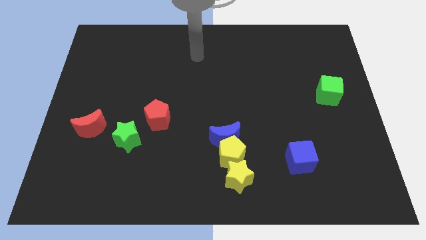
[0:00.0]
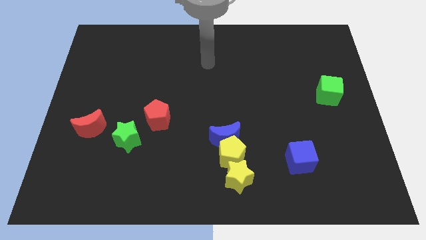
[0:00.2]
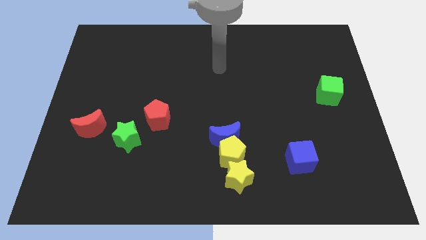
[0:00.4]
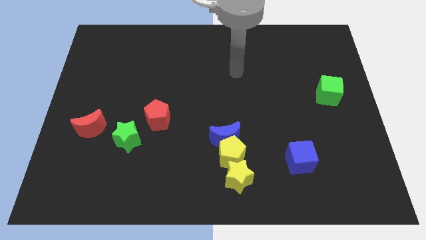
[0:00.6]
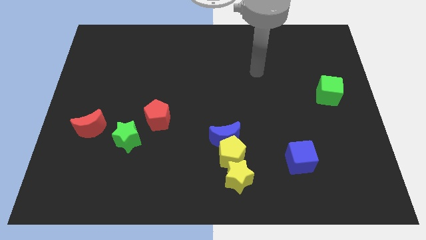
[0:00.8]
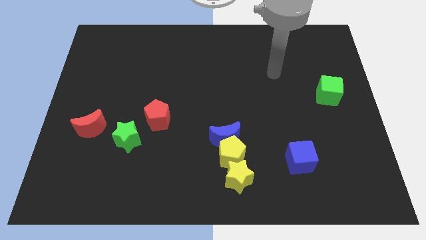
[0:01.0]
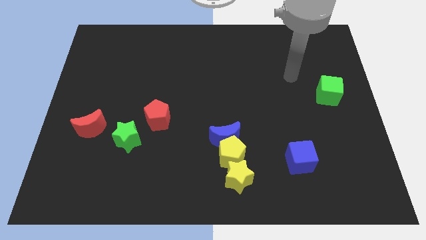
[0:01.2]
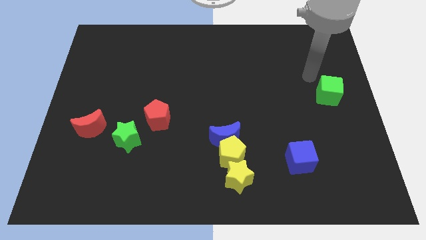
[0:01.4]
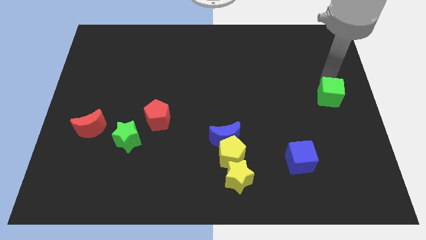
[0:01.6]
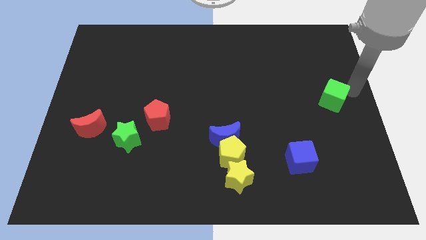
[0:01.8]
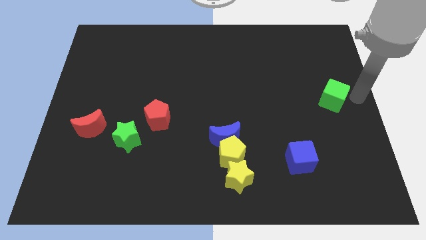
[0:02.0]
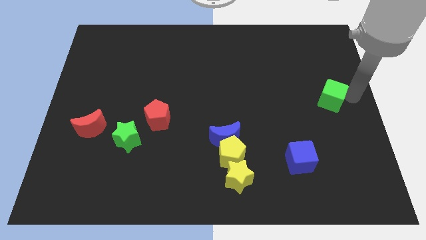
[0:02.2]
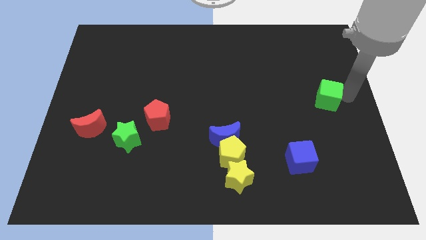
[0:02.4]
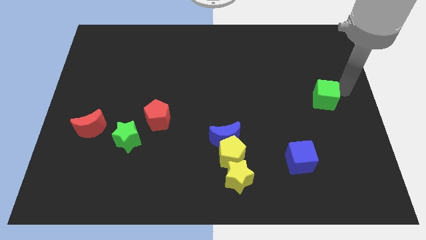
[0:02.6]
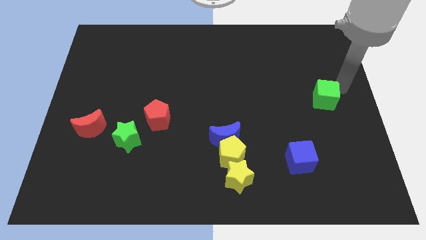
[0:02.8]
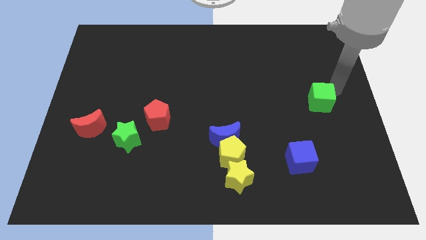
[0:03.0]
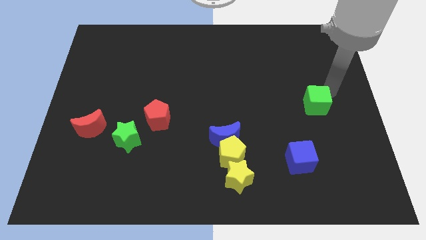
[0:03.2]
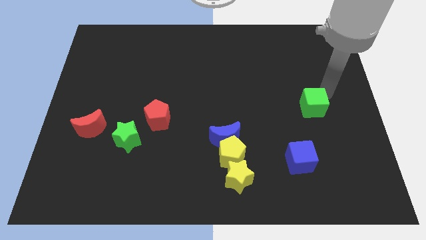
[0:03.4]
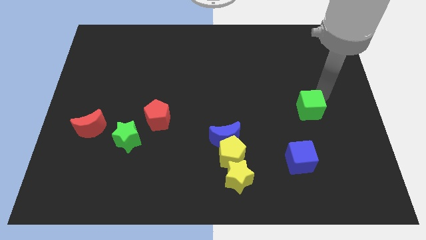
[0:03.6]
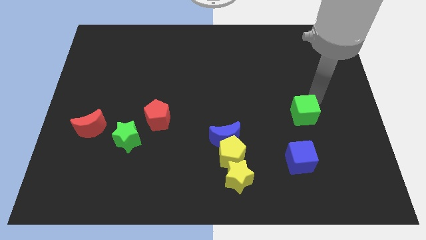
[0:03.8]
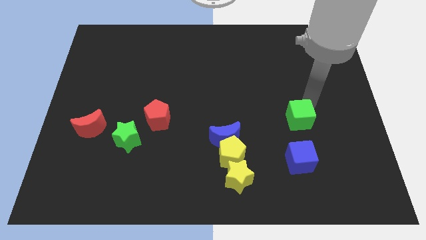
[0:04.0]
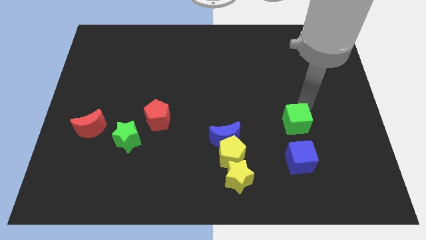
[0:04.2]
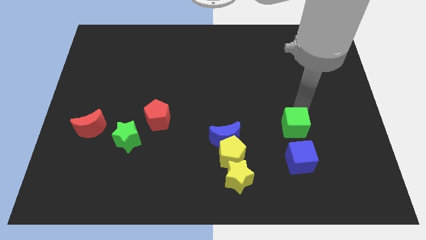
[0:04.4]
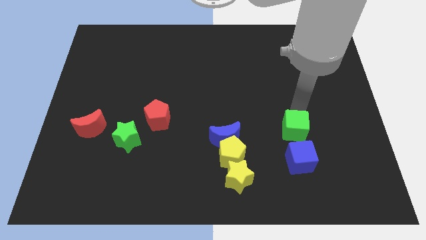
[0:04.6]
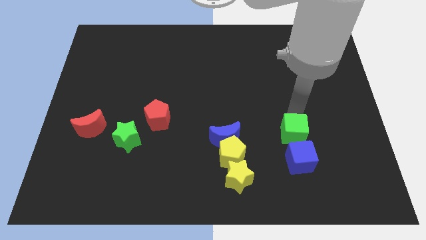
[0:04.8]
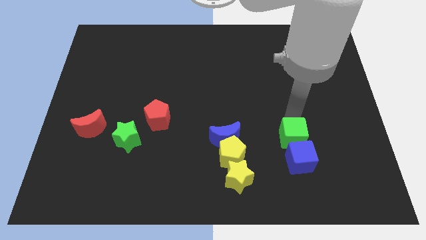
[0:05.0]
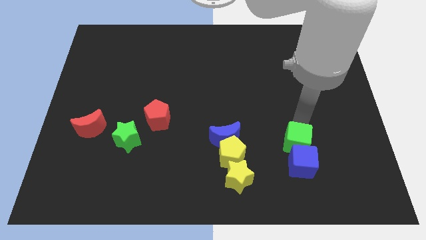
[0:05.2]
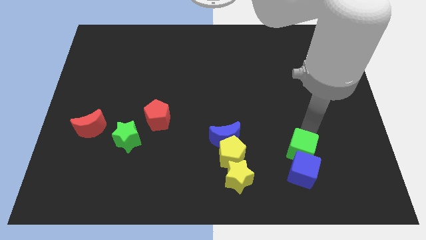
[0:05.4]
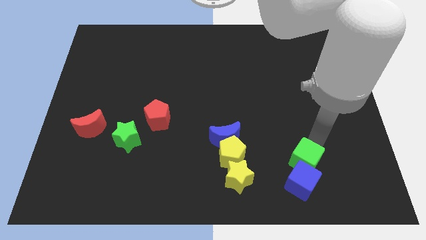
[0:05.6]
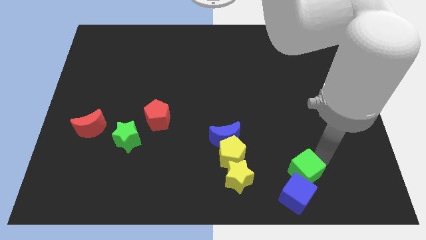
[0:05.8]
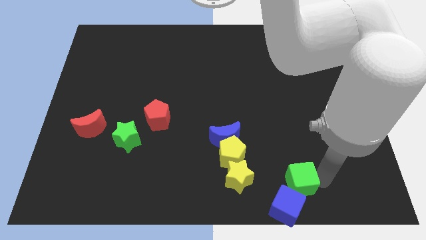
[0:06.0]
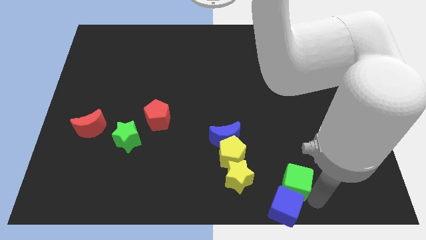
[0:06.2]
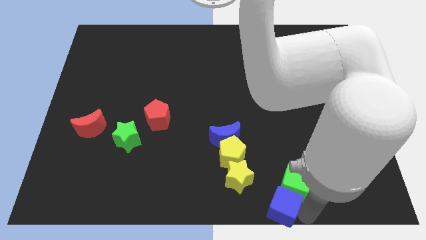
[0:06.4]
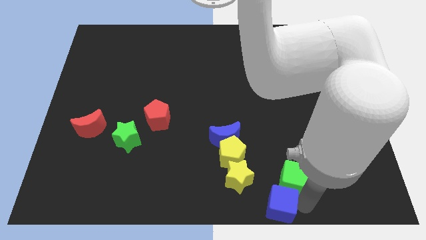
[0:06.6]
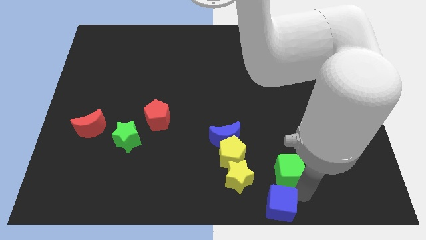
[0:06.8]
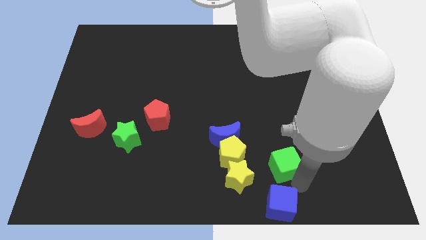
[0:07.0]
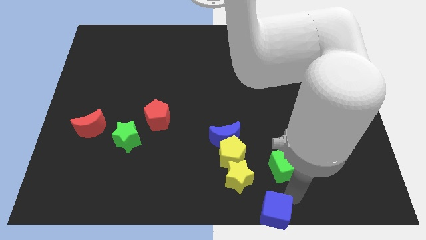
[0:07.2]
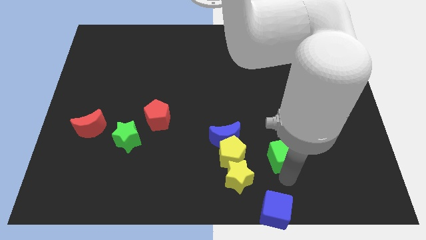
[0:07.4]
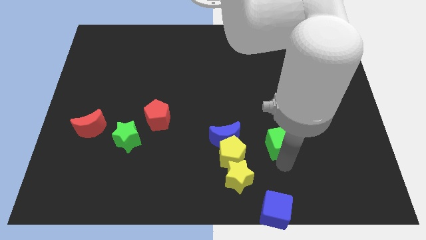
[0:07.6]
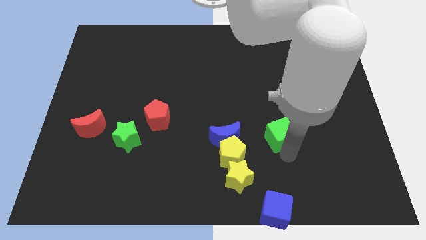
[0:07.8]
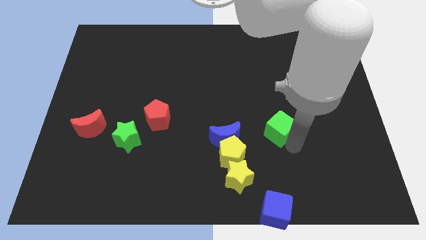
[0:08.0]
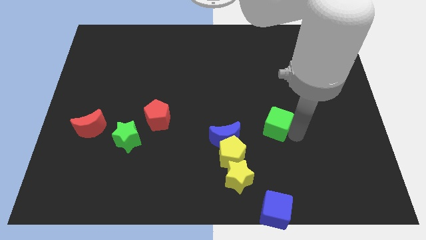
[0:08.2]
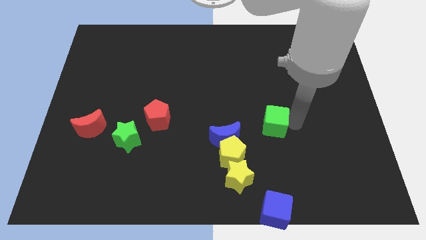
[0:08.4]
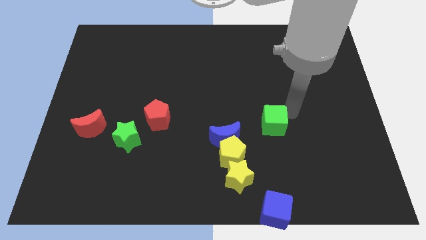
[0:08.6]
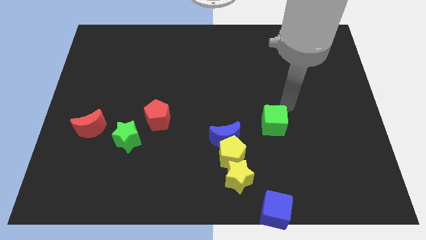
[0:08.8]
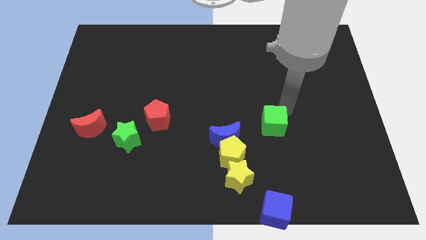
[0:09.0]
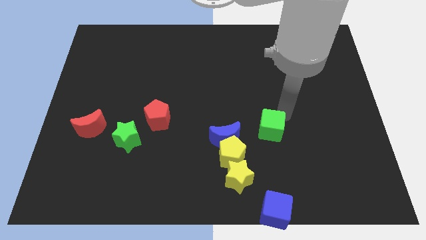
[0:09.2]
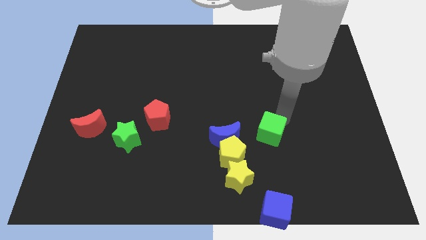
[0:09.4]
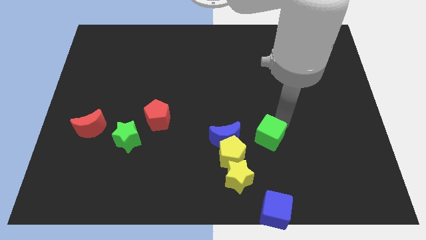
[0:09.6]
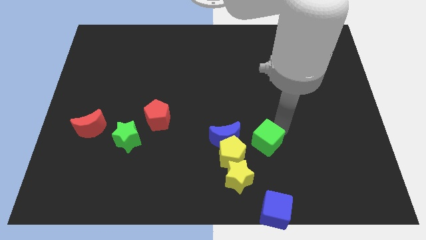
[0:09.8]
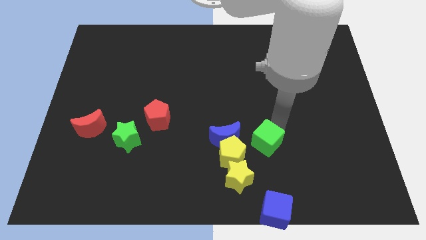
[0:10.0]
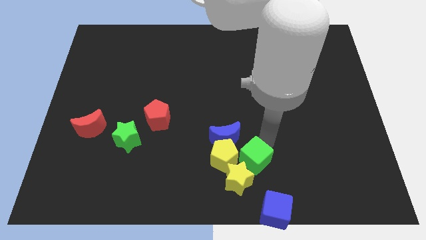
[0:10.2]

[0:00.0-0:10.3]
move the green cube next to the yellow star

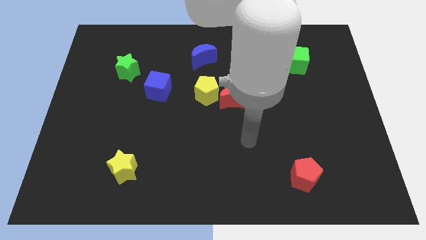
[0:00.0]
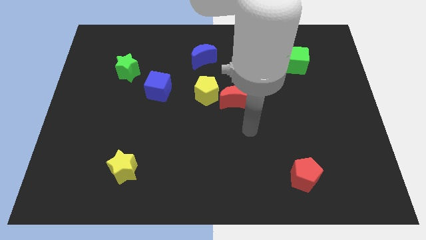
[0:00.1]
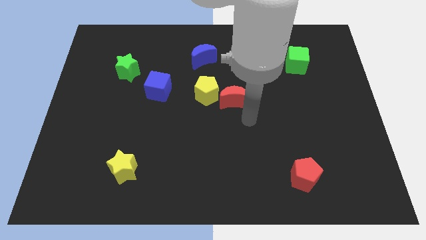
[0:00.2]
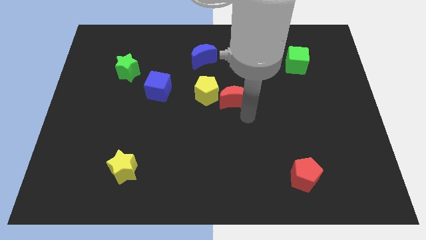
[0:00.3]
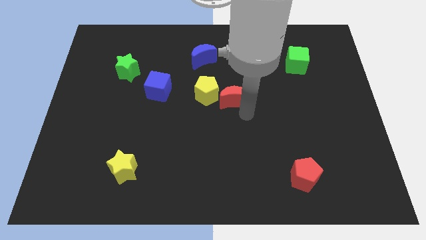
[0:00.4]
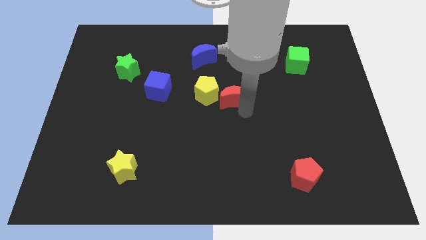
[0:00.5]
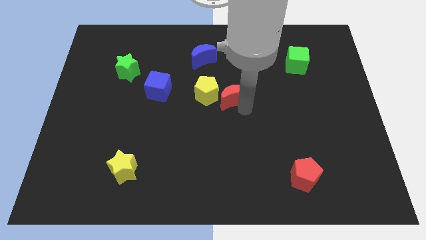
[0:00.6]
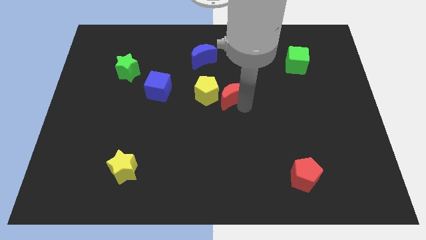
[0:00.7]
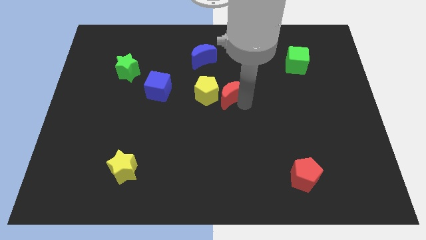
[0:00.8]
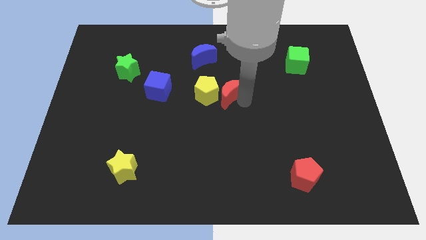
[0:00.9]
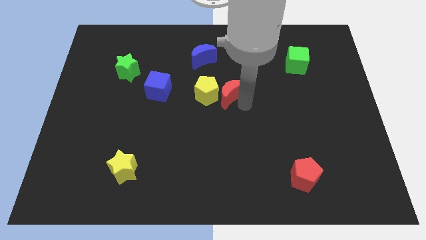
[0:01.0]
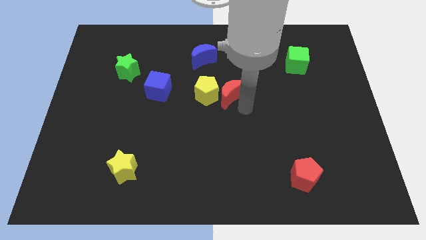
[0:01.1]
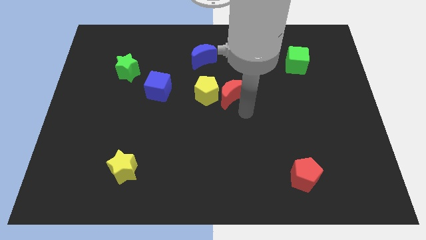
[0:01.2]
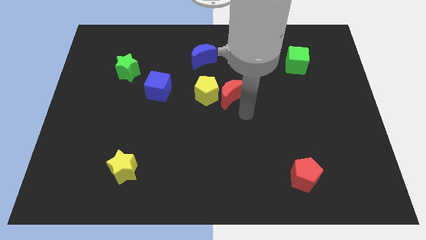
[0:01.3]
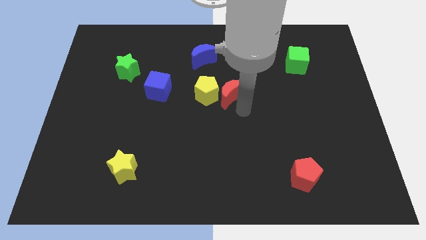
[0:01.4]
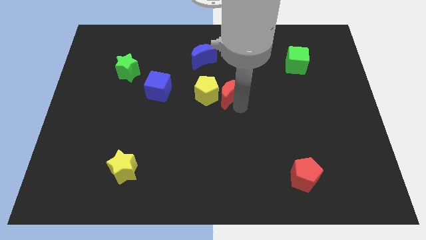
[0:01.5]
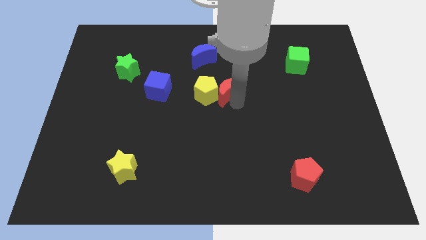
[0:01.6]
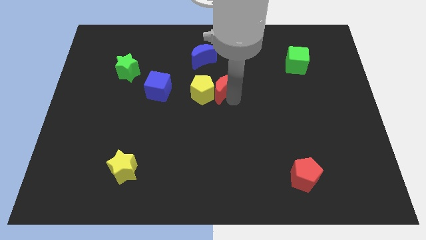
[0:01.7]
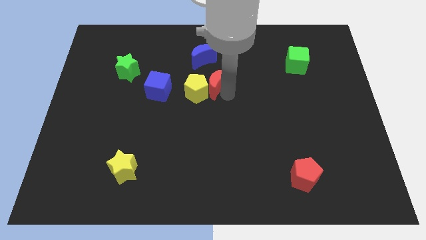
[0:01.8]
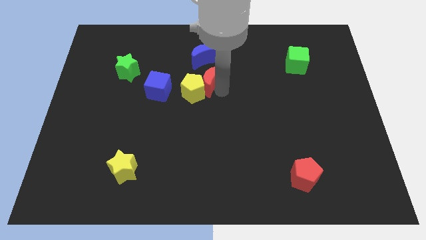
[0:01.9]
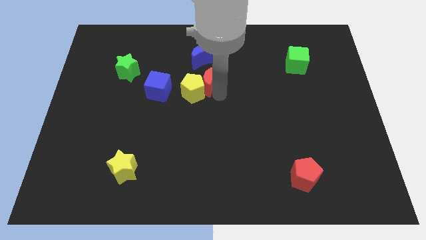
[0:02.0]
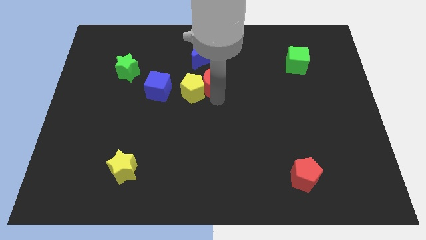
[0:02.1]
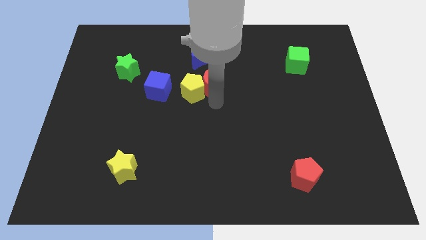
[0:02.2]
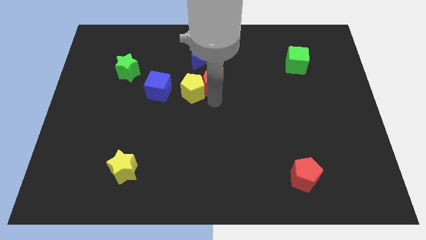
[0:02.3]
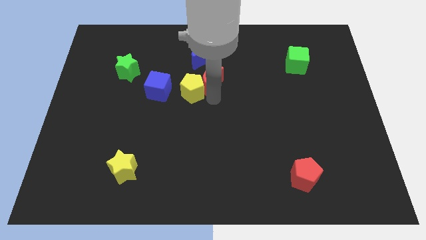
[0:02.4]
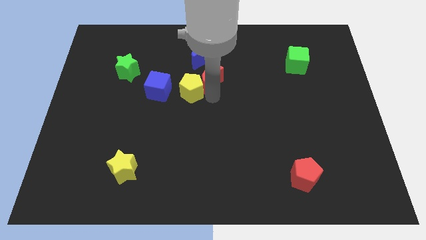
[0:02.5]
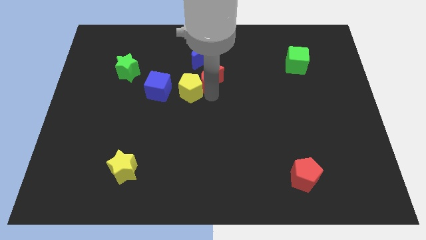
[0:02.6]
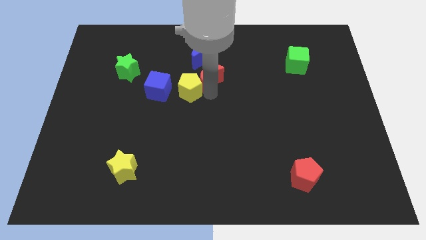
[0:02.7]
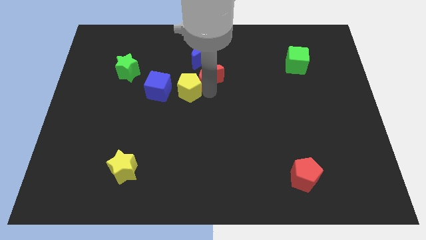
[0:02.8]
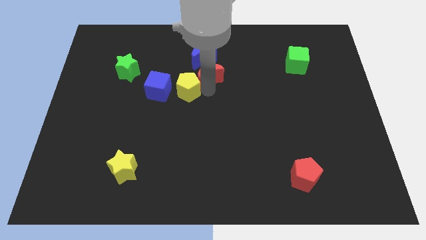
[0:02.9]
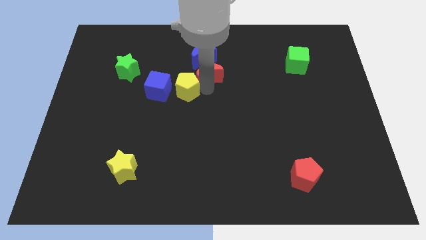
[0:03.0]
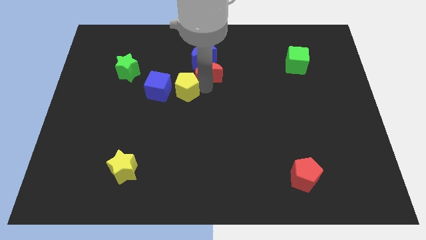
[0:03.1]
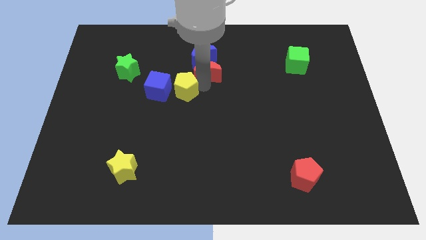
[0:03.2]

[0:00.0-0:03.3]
move the red moon next to the blue moon
